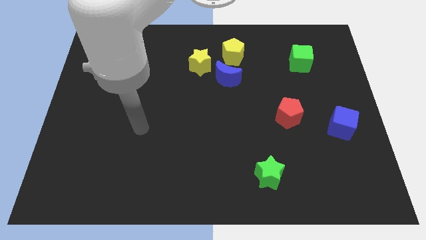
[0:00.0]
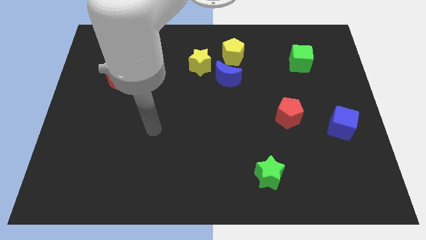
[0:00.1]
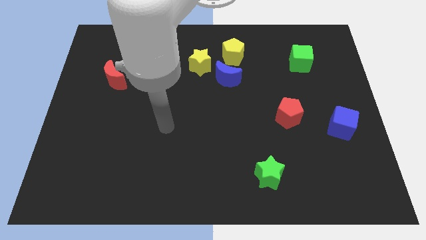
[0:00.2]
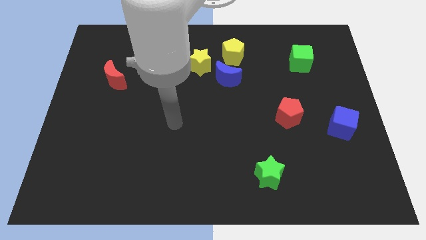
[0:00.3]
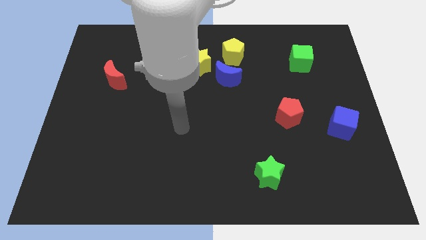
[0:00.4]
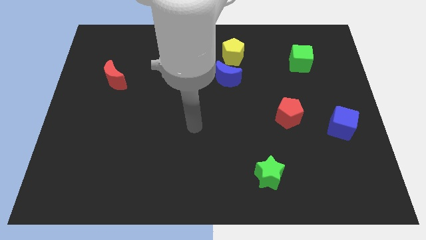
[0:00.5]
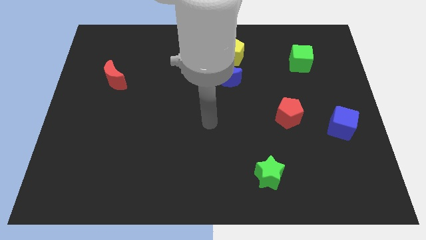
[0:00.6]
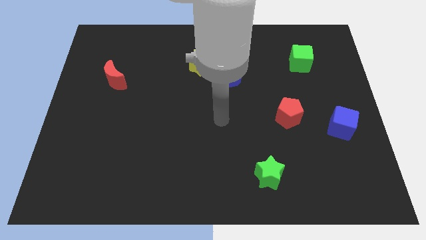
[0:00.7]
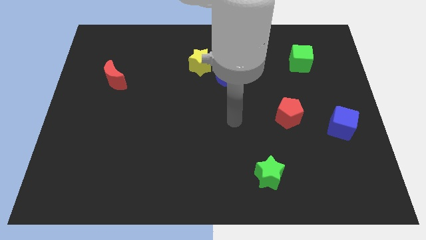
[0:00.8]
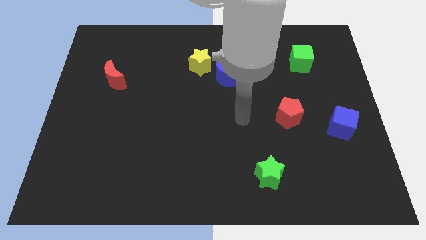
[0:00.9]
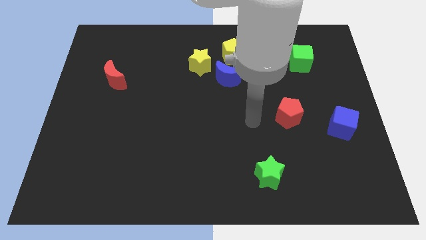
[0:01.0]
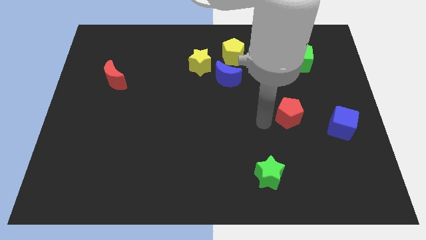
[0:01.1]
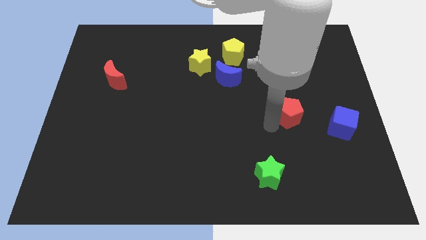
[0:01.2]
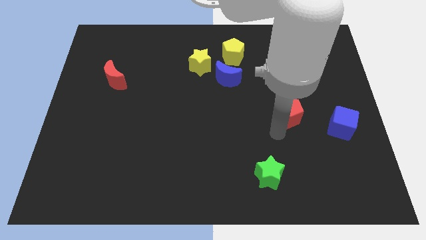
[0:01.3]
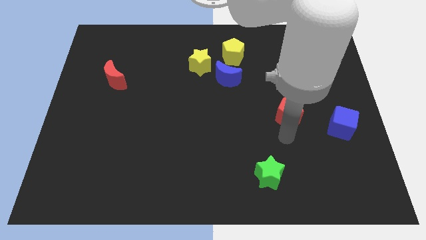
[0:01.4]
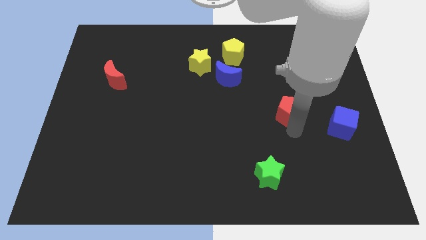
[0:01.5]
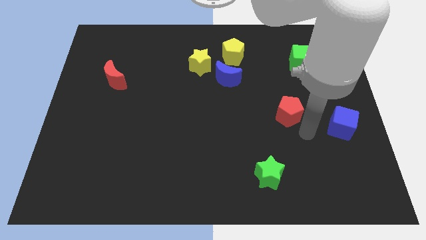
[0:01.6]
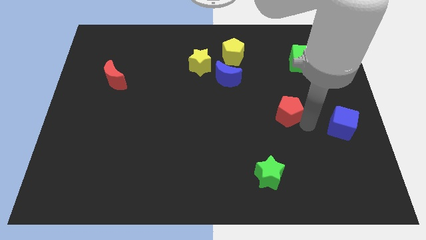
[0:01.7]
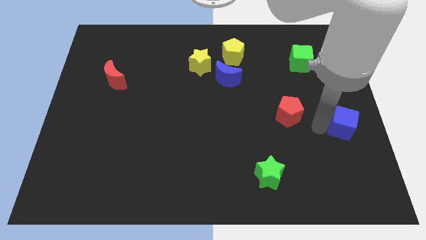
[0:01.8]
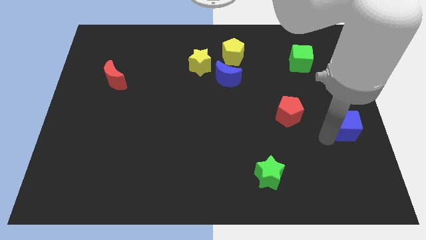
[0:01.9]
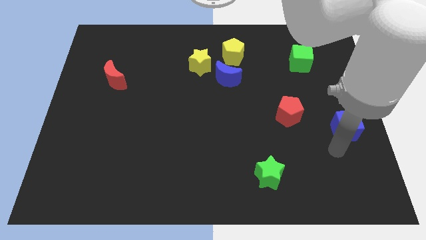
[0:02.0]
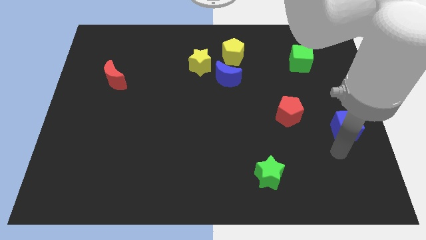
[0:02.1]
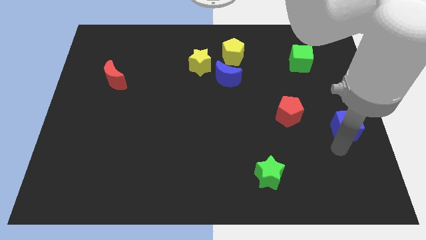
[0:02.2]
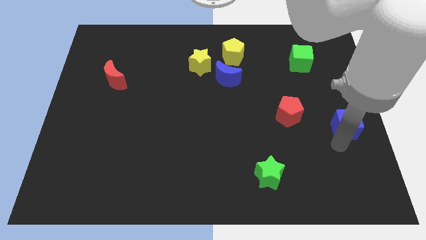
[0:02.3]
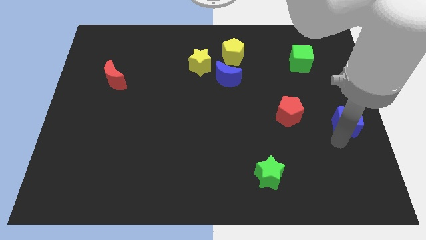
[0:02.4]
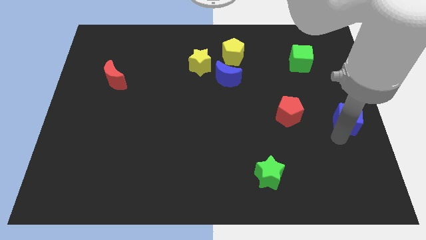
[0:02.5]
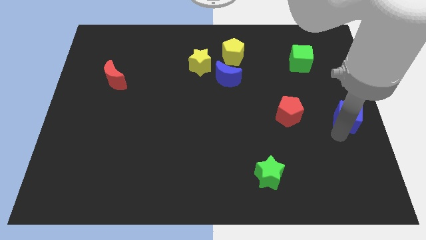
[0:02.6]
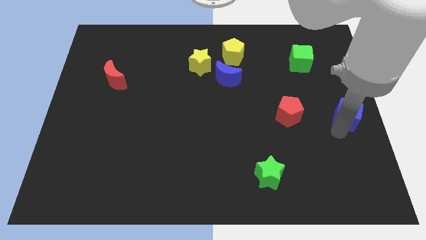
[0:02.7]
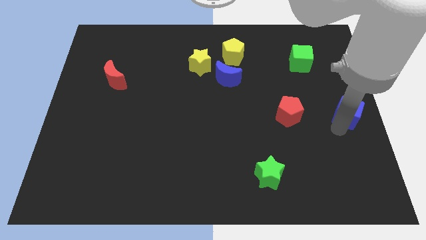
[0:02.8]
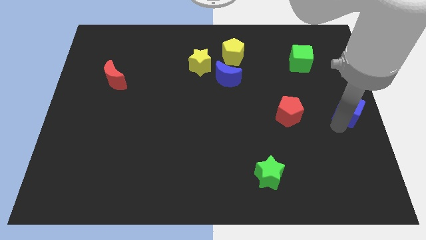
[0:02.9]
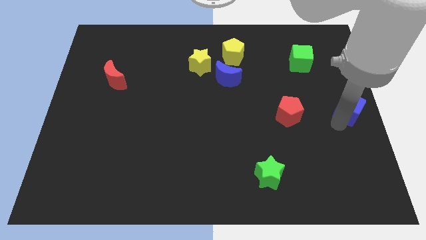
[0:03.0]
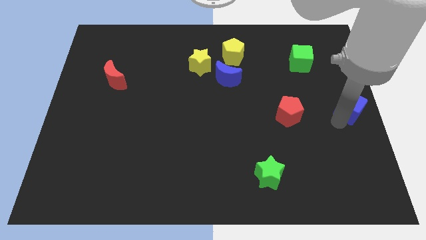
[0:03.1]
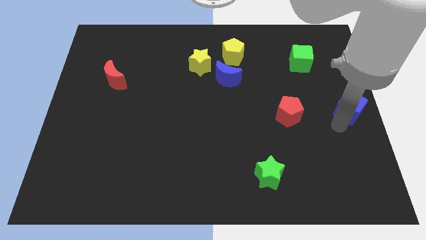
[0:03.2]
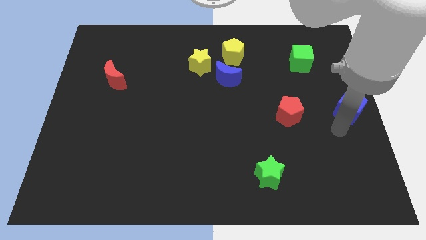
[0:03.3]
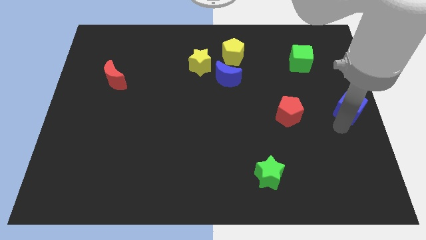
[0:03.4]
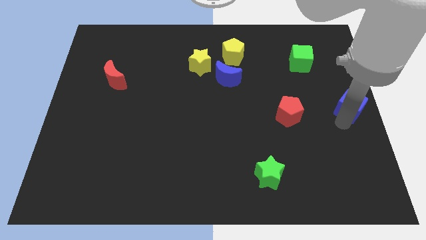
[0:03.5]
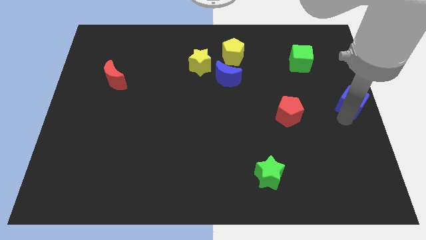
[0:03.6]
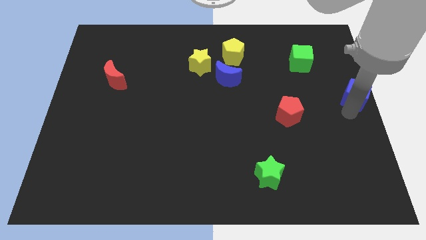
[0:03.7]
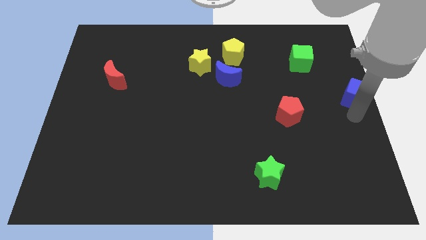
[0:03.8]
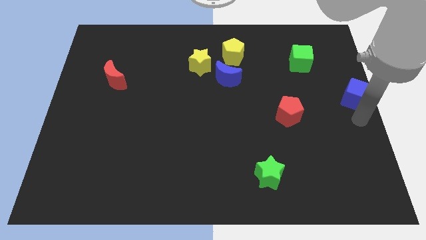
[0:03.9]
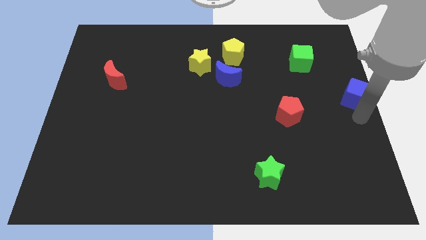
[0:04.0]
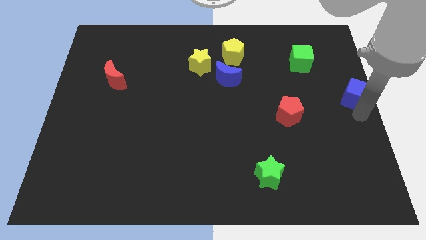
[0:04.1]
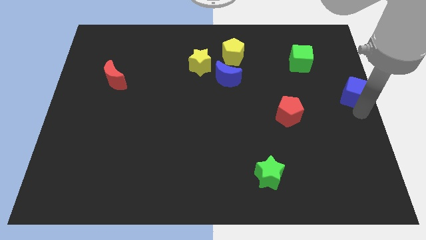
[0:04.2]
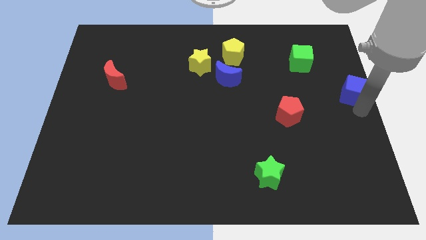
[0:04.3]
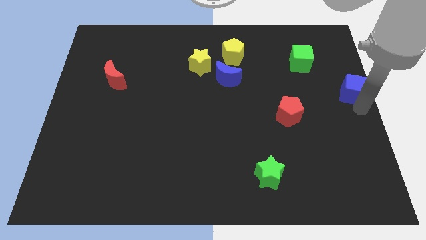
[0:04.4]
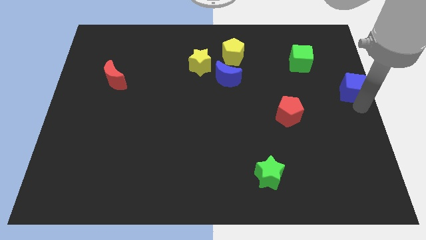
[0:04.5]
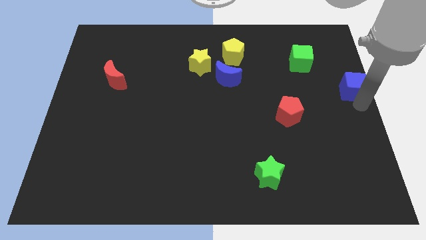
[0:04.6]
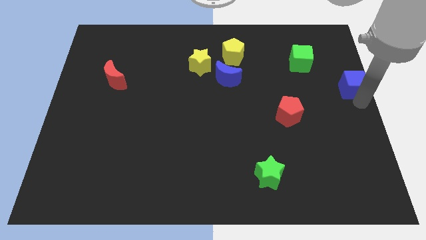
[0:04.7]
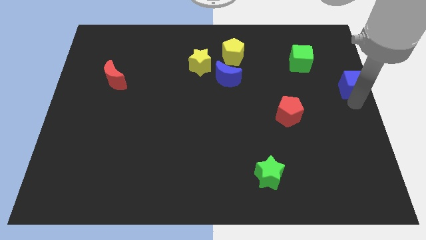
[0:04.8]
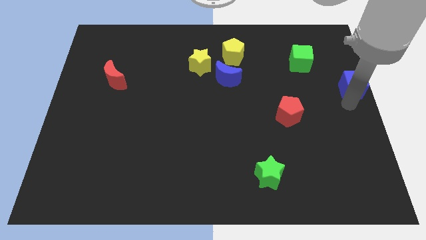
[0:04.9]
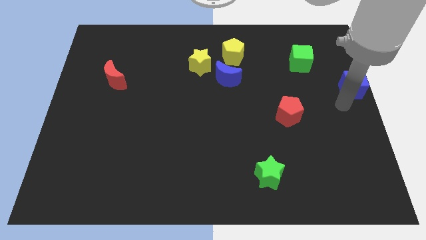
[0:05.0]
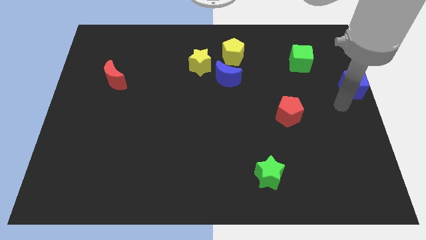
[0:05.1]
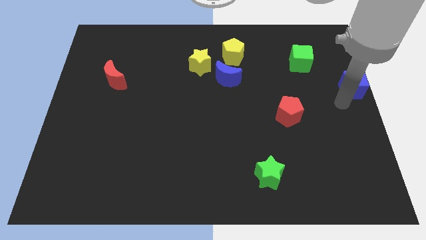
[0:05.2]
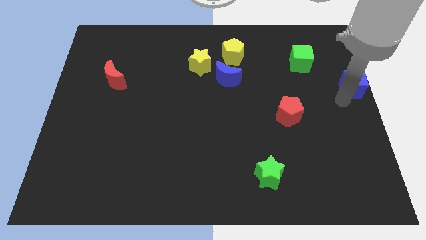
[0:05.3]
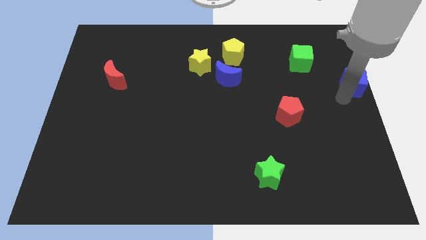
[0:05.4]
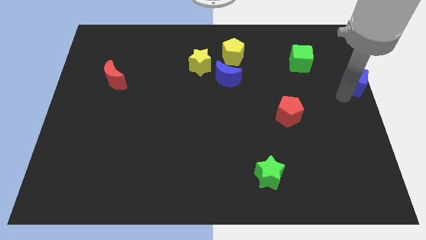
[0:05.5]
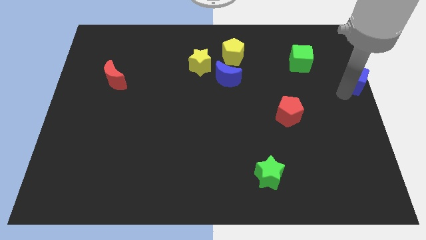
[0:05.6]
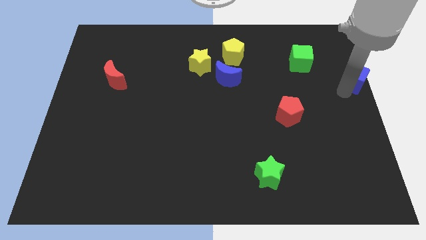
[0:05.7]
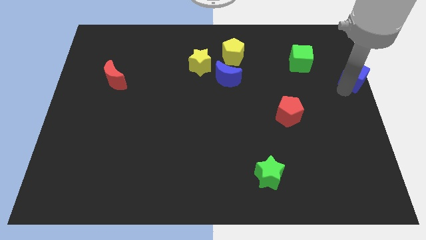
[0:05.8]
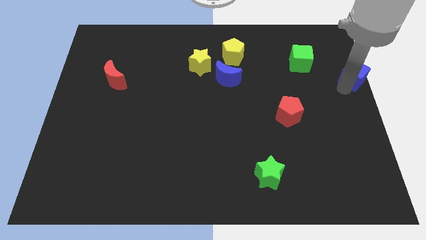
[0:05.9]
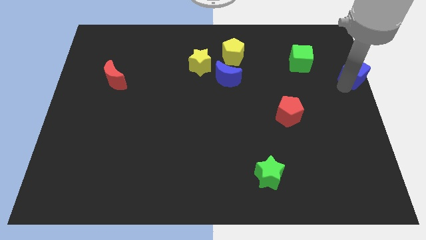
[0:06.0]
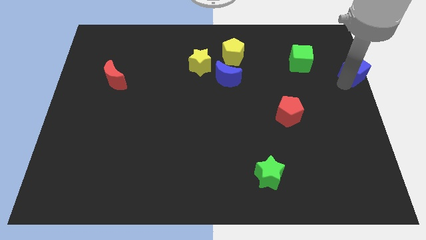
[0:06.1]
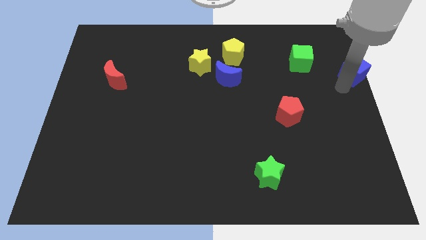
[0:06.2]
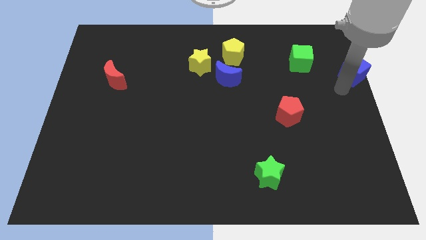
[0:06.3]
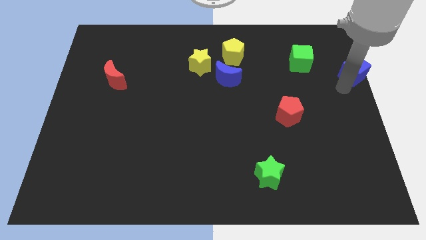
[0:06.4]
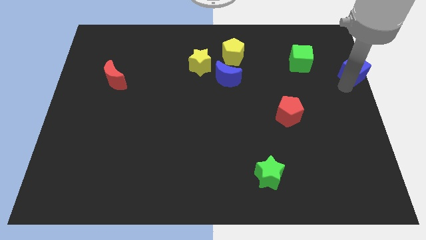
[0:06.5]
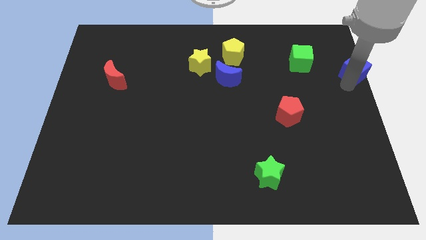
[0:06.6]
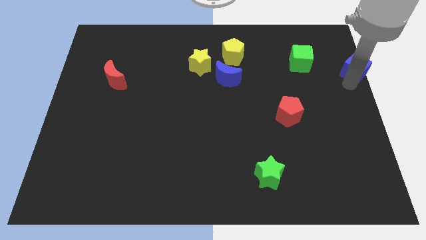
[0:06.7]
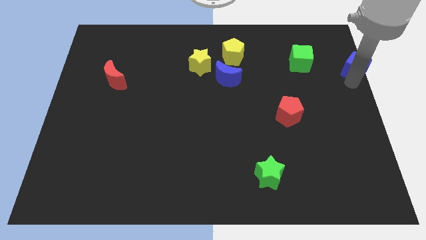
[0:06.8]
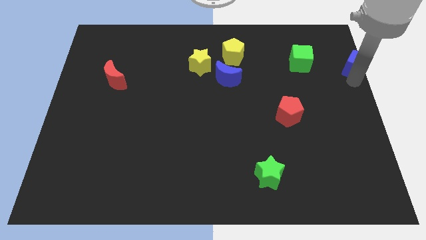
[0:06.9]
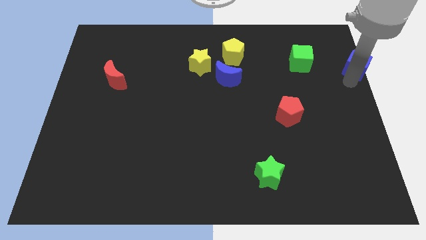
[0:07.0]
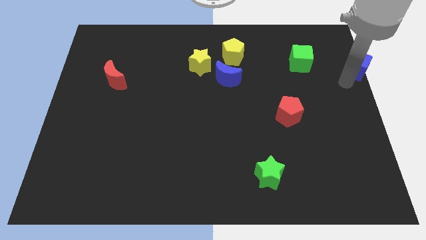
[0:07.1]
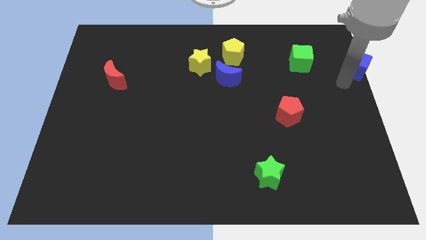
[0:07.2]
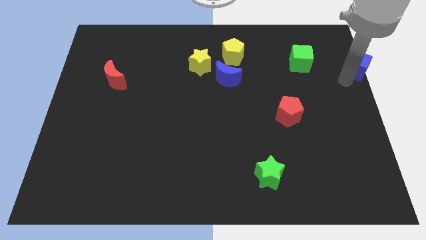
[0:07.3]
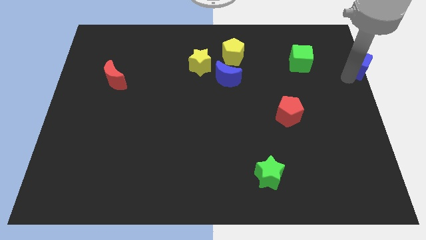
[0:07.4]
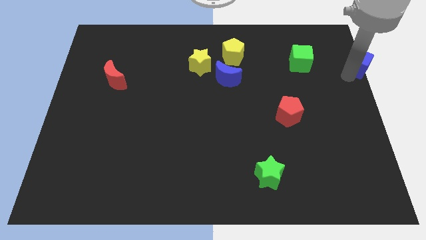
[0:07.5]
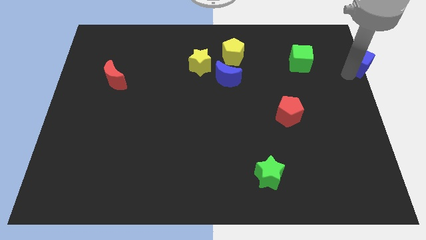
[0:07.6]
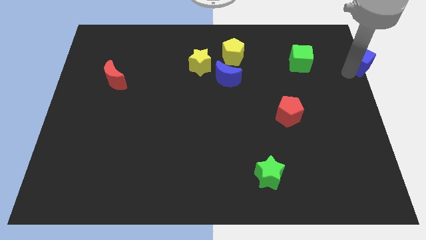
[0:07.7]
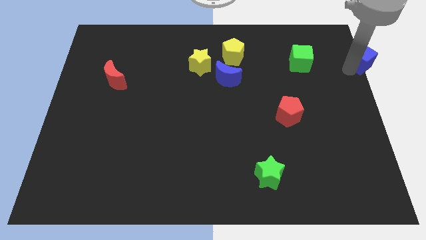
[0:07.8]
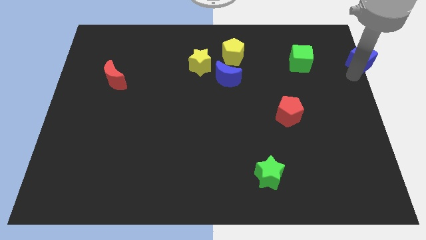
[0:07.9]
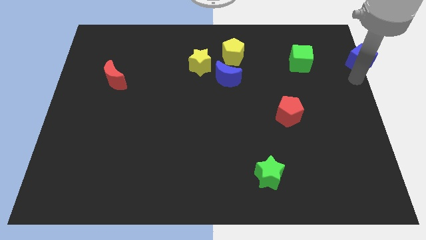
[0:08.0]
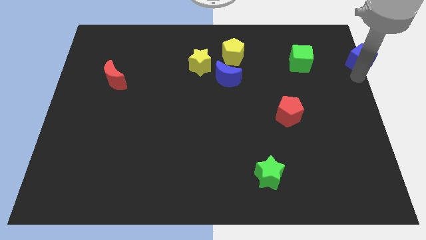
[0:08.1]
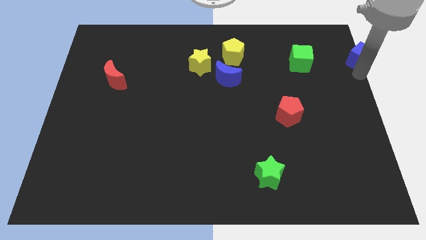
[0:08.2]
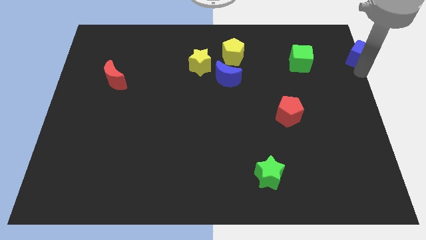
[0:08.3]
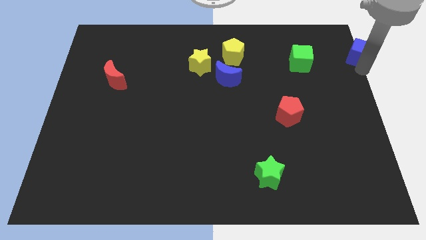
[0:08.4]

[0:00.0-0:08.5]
move the blue cube to the upper right corner
